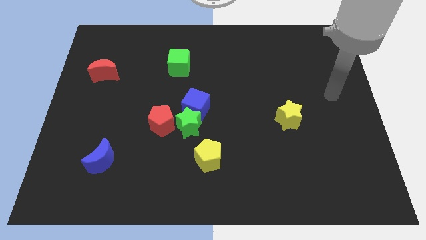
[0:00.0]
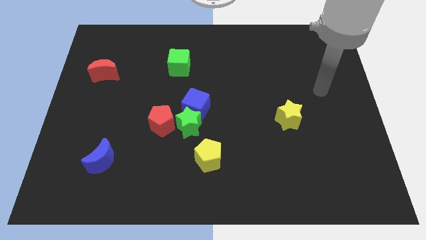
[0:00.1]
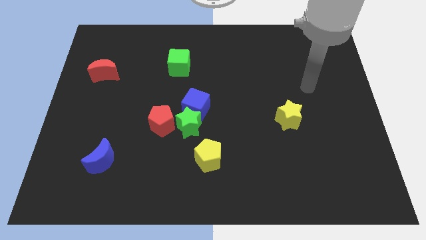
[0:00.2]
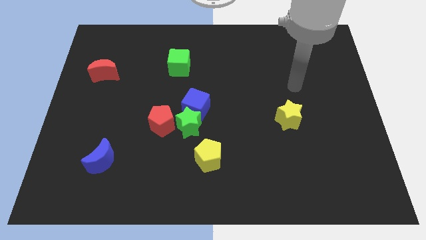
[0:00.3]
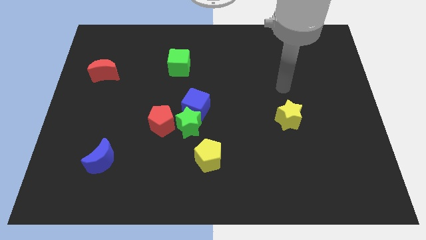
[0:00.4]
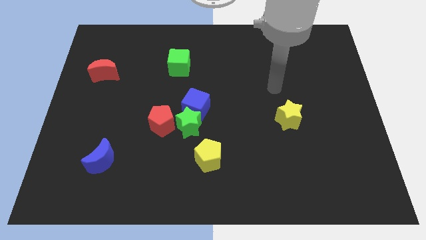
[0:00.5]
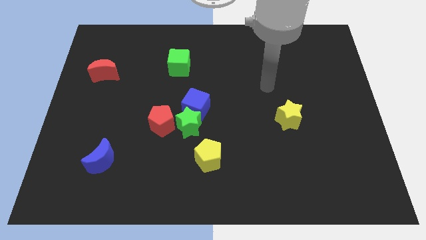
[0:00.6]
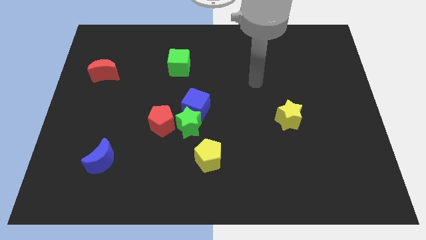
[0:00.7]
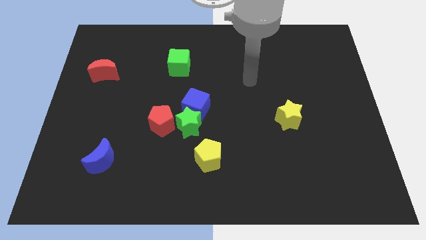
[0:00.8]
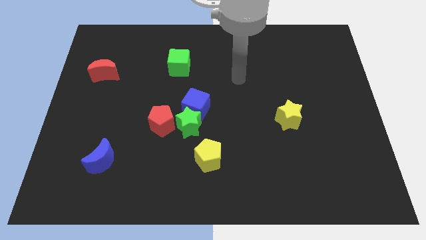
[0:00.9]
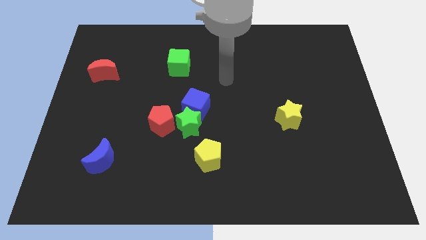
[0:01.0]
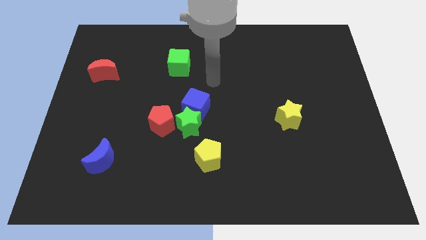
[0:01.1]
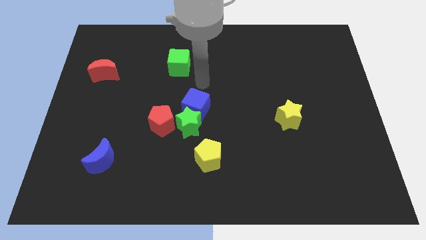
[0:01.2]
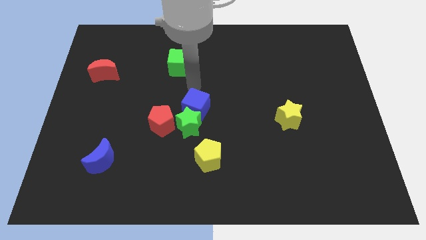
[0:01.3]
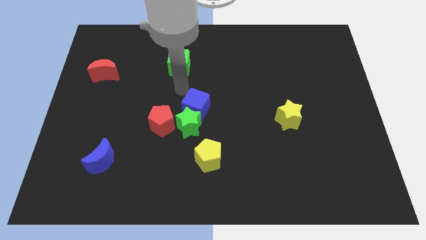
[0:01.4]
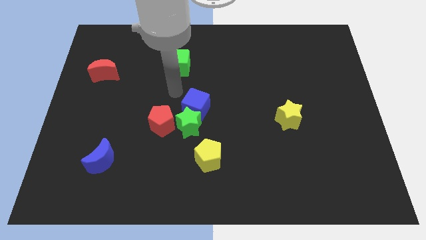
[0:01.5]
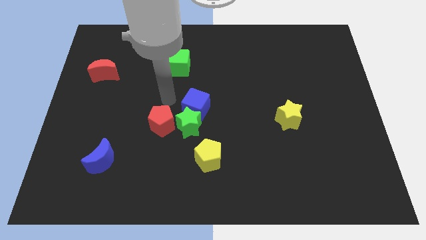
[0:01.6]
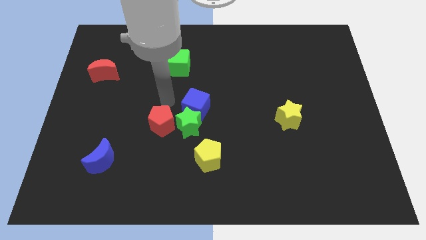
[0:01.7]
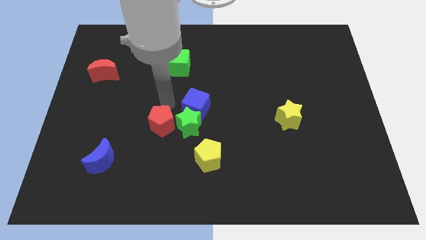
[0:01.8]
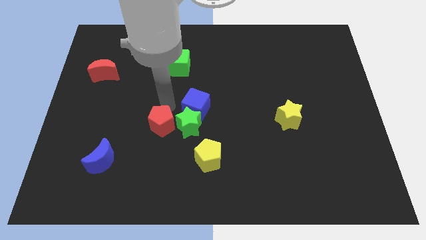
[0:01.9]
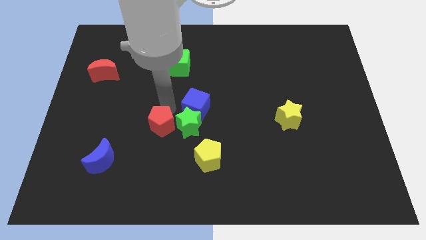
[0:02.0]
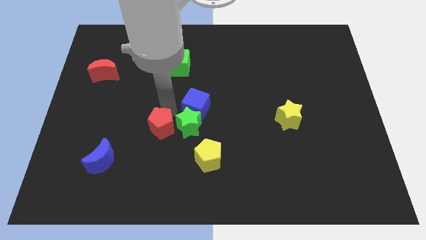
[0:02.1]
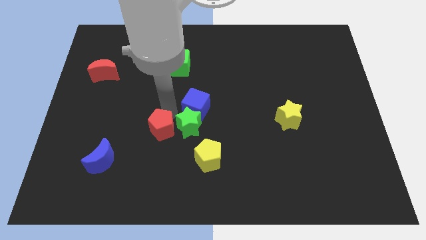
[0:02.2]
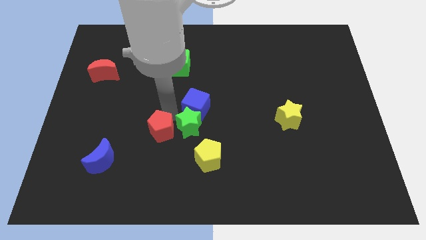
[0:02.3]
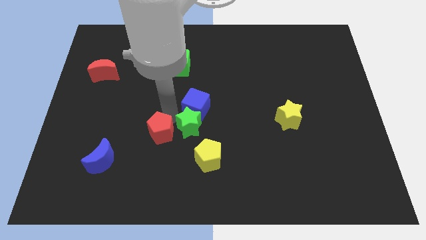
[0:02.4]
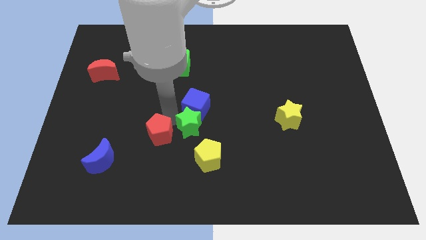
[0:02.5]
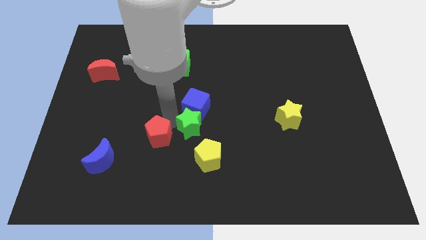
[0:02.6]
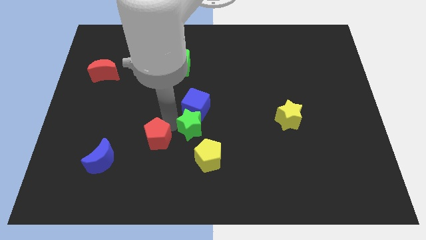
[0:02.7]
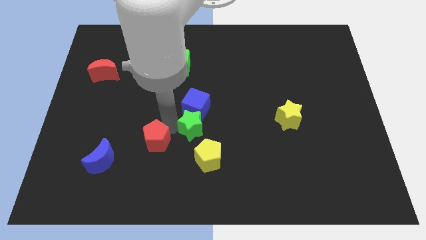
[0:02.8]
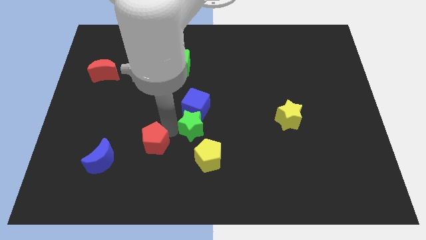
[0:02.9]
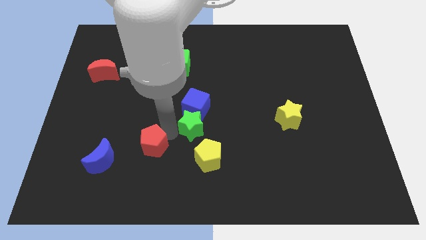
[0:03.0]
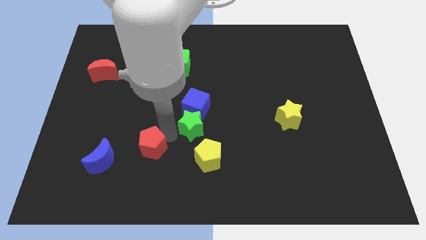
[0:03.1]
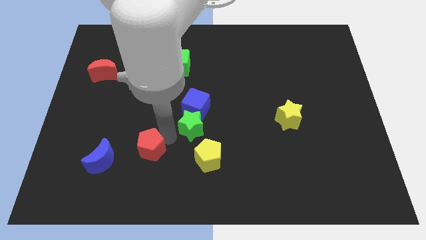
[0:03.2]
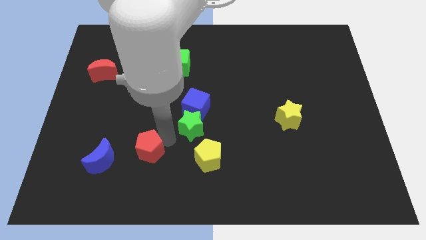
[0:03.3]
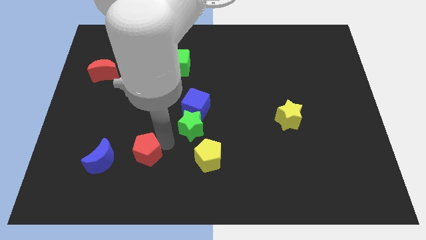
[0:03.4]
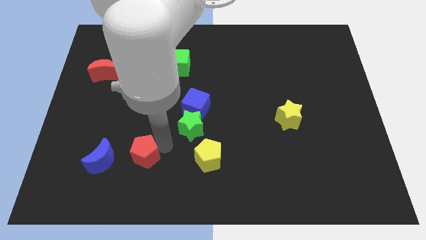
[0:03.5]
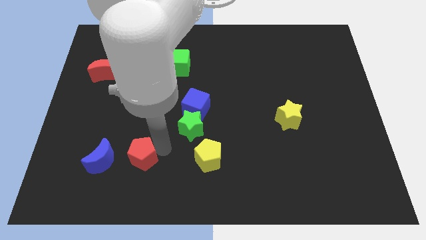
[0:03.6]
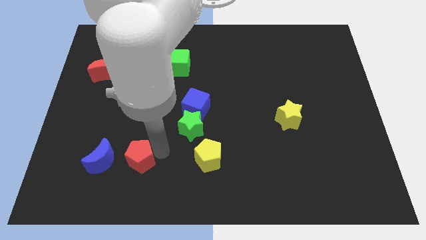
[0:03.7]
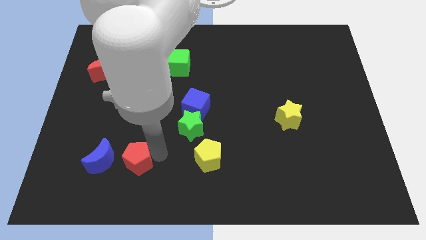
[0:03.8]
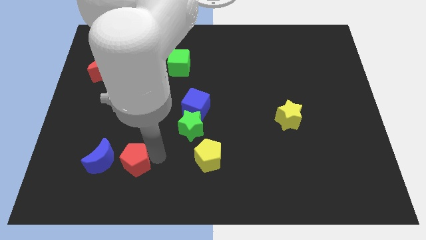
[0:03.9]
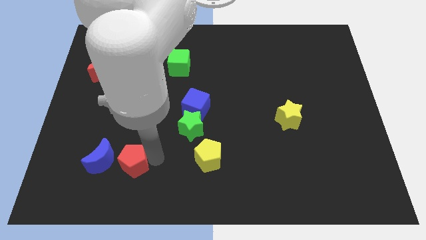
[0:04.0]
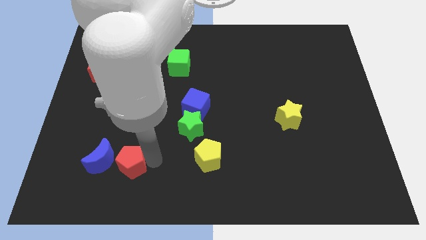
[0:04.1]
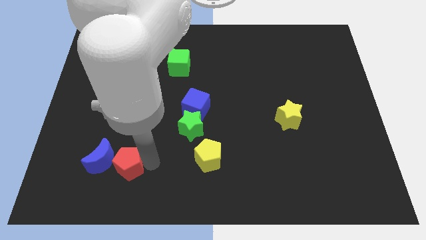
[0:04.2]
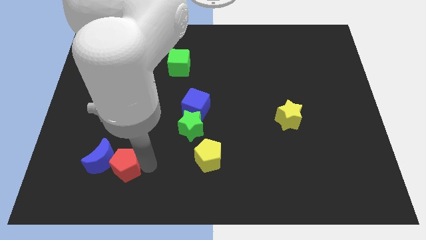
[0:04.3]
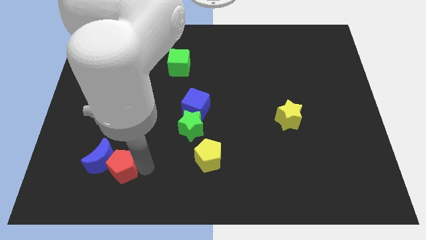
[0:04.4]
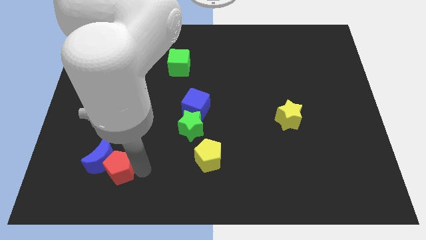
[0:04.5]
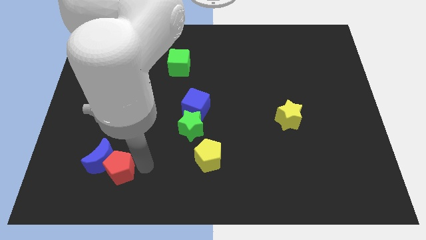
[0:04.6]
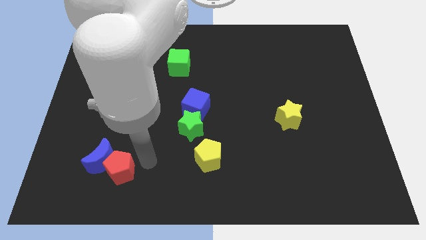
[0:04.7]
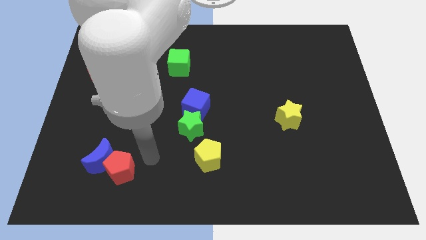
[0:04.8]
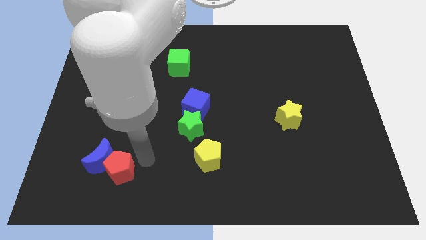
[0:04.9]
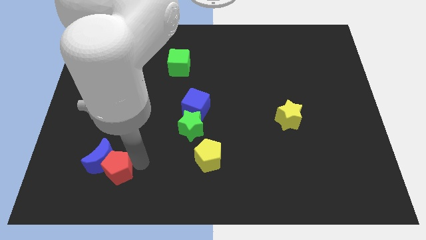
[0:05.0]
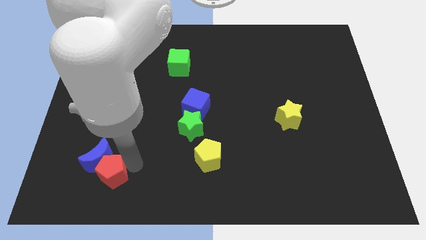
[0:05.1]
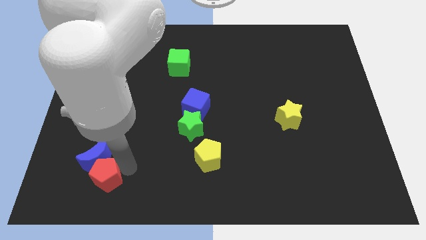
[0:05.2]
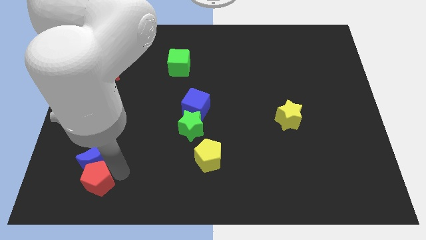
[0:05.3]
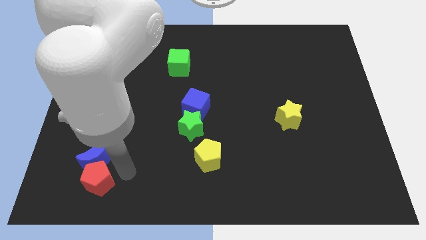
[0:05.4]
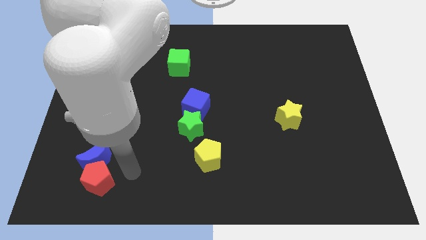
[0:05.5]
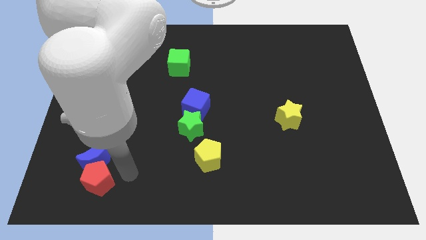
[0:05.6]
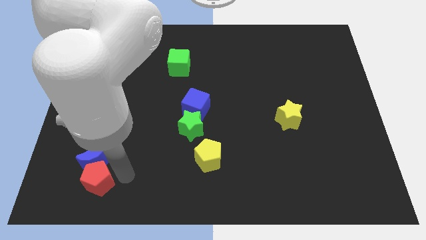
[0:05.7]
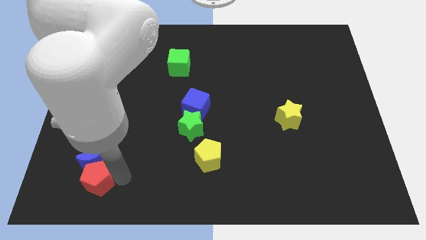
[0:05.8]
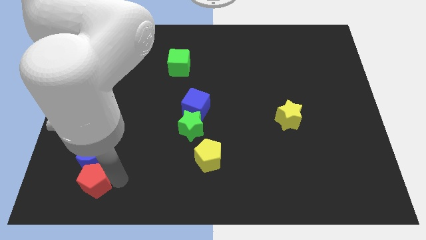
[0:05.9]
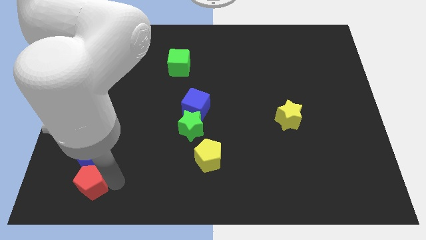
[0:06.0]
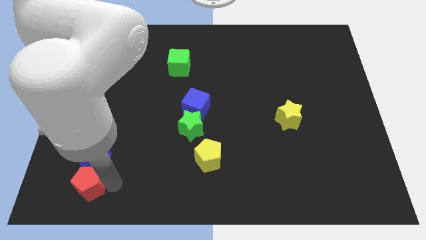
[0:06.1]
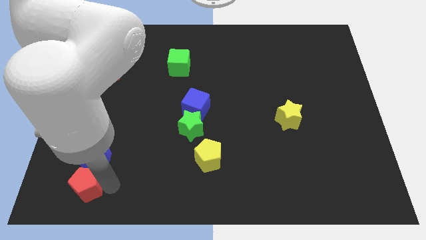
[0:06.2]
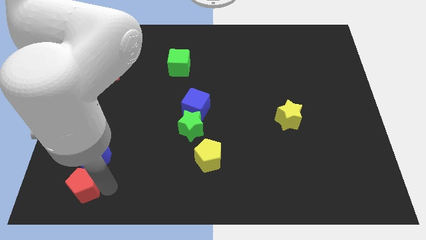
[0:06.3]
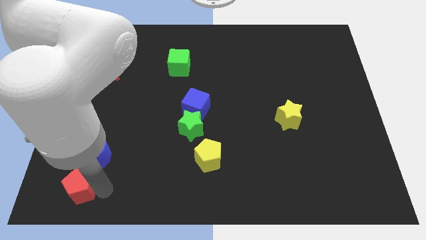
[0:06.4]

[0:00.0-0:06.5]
put the red pentagon to the bottom left of the board

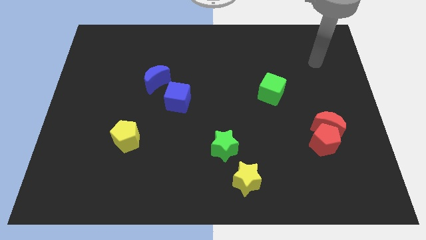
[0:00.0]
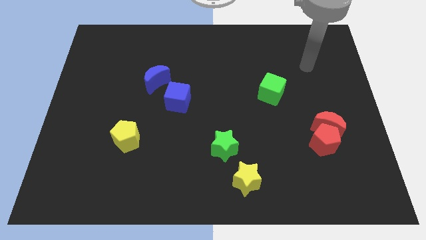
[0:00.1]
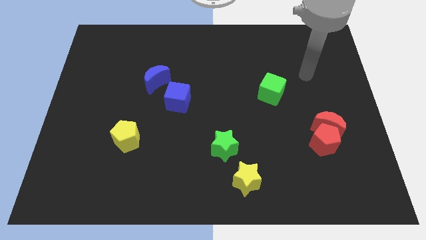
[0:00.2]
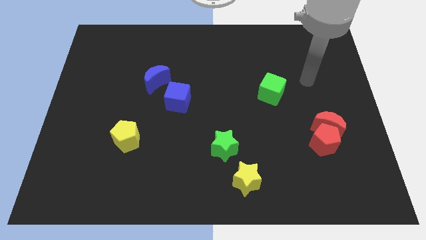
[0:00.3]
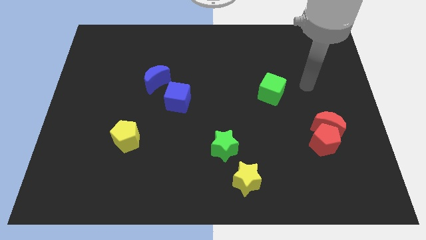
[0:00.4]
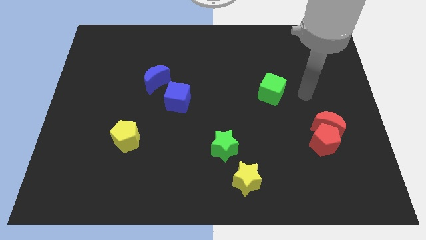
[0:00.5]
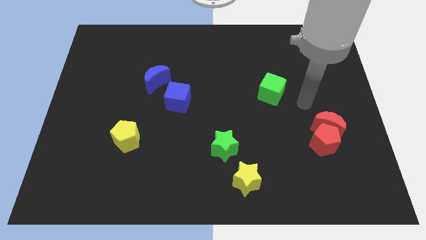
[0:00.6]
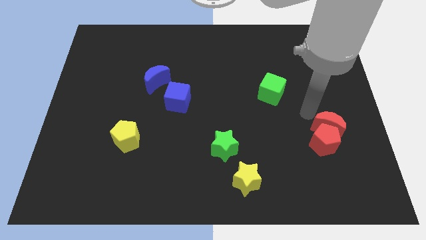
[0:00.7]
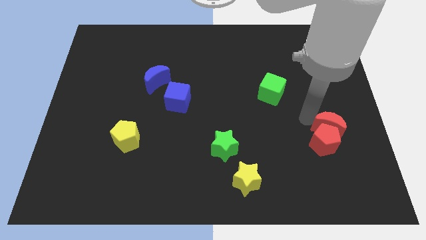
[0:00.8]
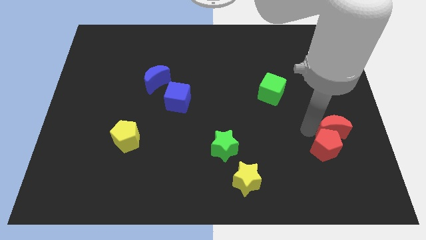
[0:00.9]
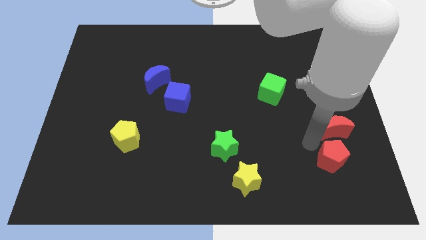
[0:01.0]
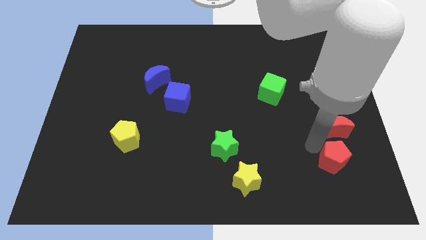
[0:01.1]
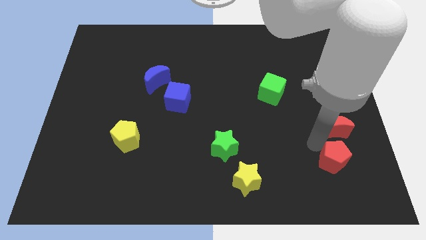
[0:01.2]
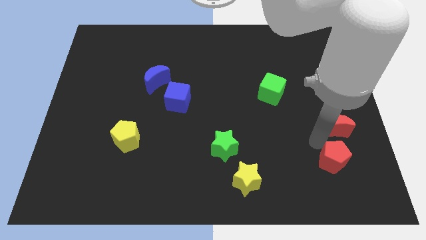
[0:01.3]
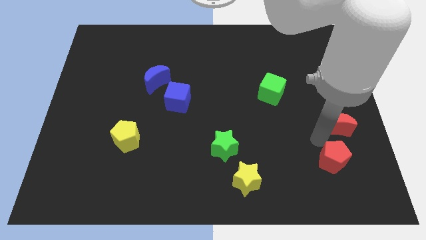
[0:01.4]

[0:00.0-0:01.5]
push the red moon to the center right
